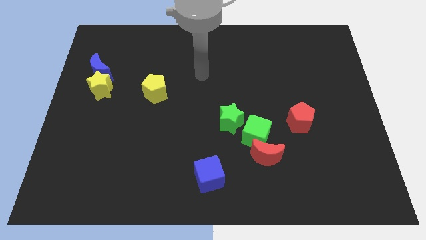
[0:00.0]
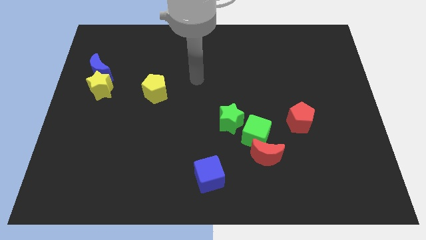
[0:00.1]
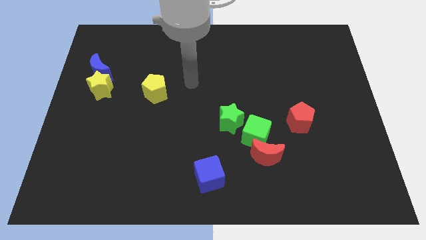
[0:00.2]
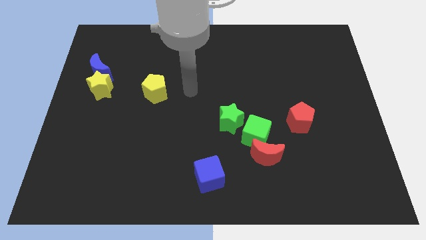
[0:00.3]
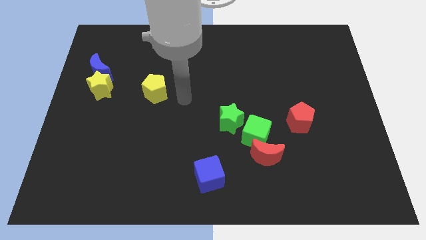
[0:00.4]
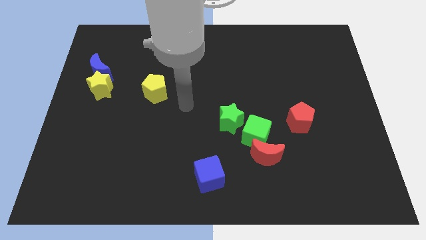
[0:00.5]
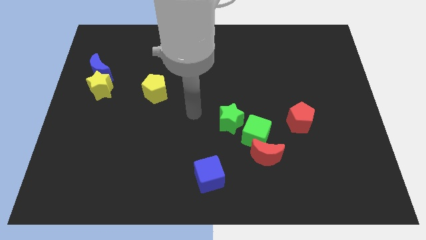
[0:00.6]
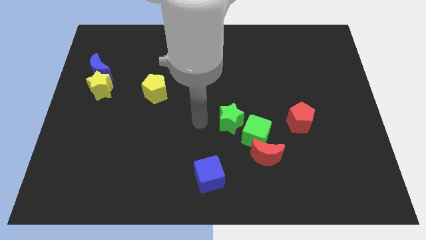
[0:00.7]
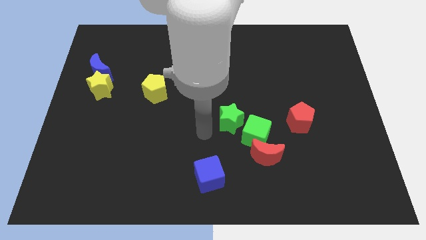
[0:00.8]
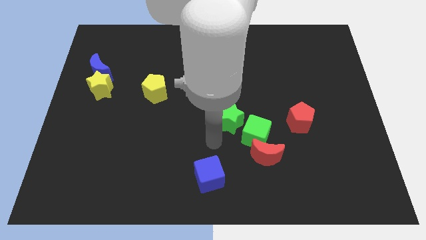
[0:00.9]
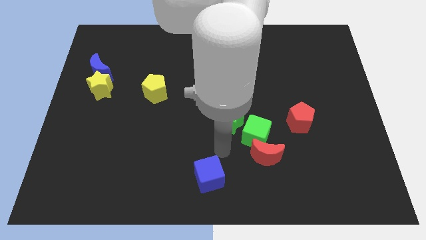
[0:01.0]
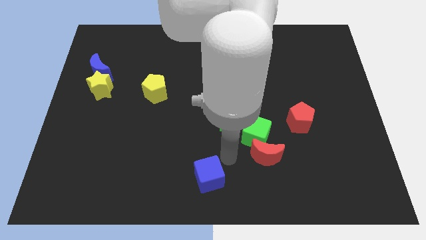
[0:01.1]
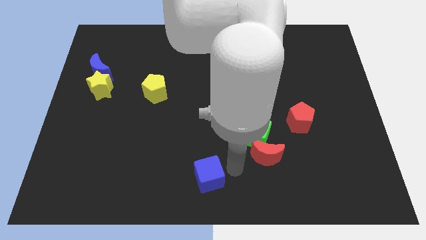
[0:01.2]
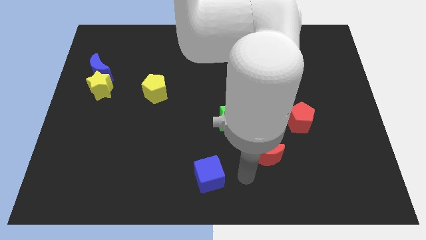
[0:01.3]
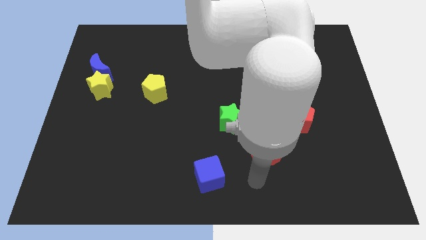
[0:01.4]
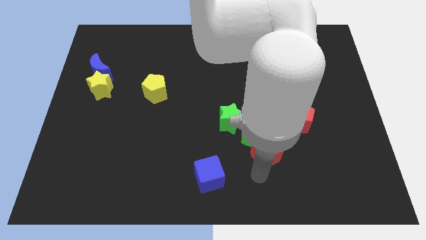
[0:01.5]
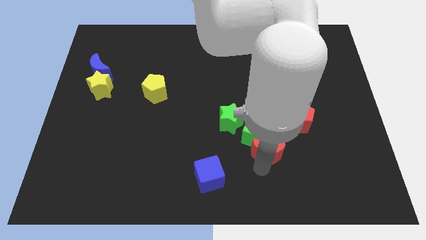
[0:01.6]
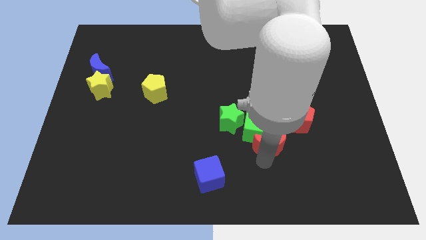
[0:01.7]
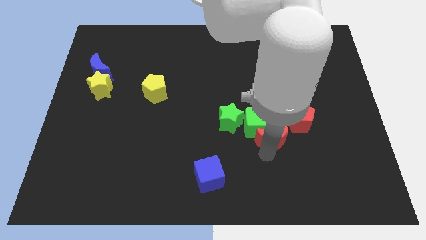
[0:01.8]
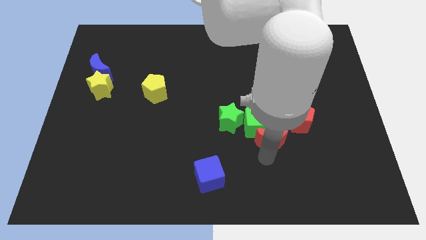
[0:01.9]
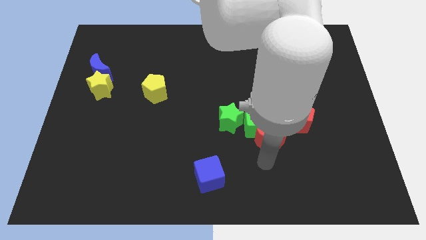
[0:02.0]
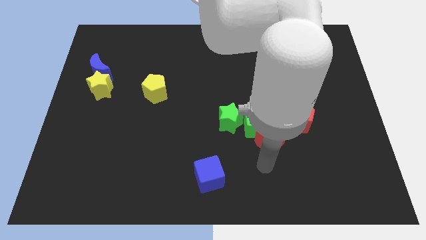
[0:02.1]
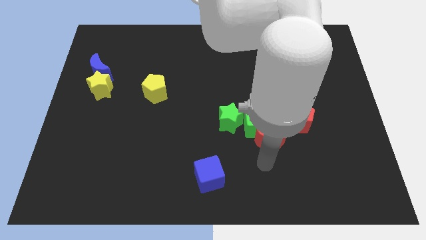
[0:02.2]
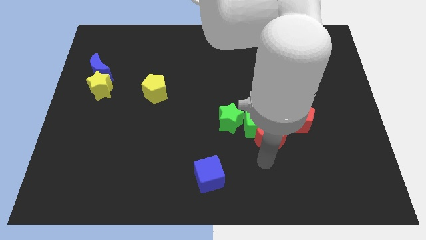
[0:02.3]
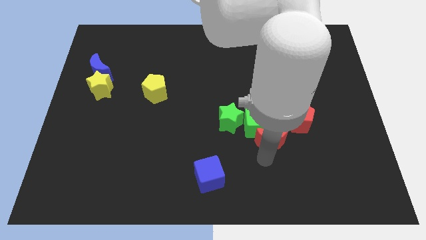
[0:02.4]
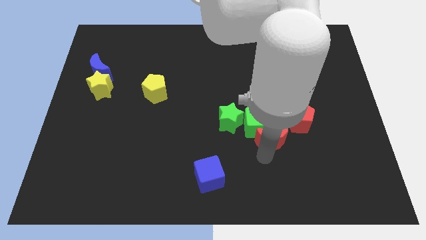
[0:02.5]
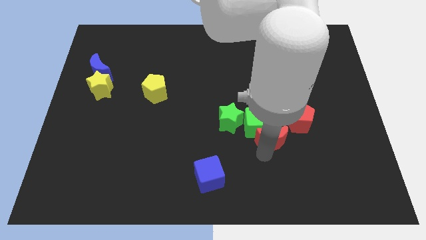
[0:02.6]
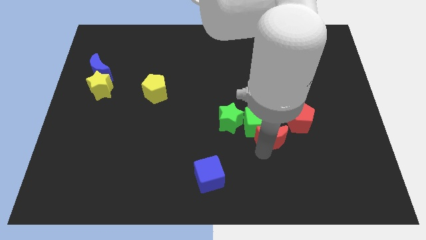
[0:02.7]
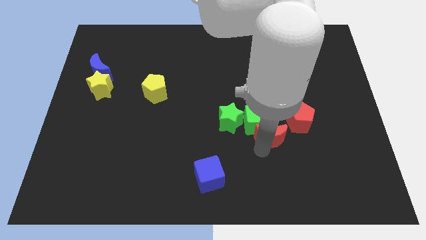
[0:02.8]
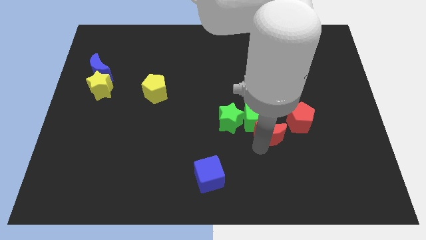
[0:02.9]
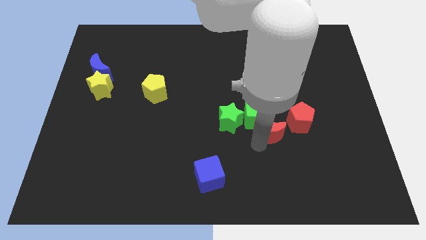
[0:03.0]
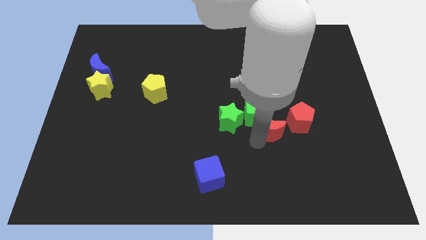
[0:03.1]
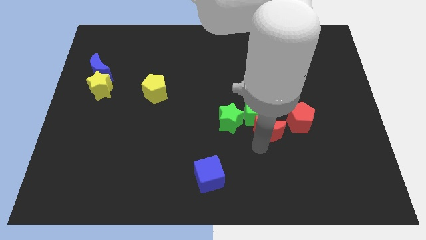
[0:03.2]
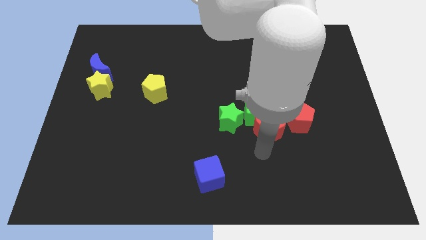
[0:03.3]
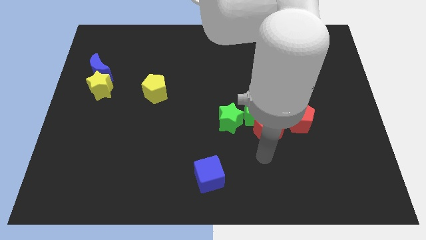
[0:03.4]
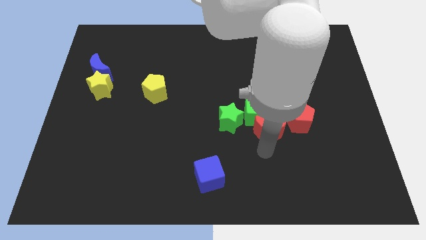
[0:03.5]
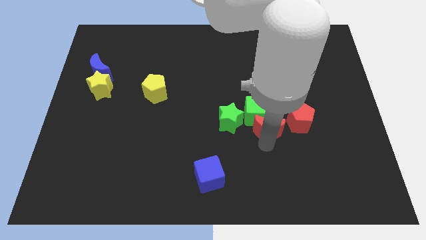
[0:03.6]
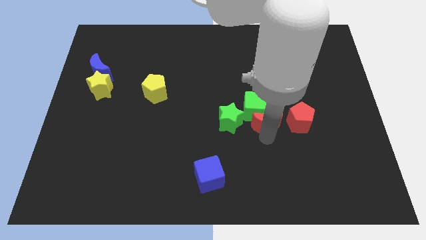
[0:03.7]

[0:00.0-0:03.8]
move the red moon a little bit up

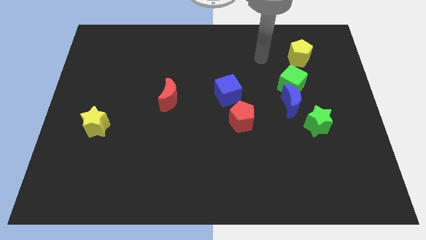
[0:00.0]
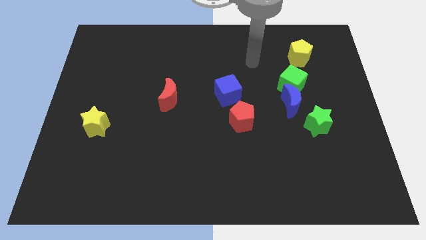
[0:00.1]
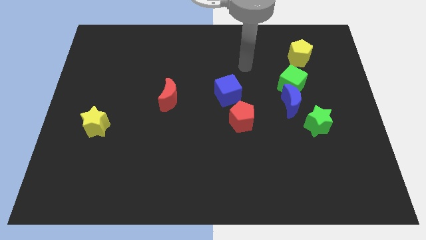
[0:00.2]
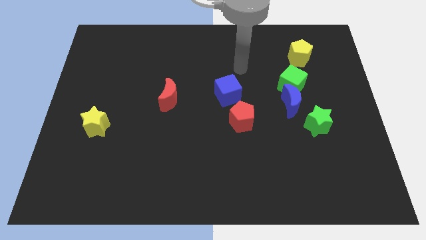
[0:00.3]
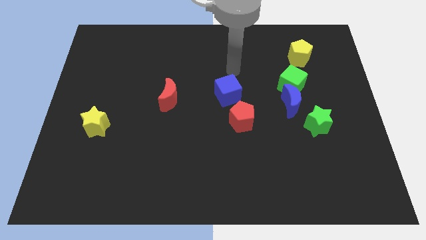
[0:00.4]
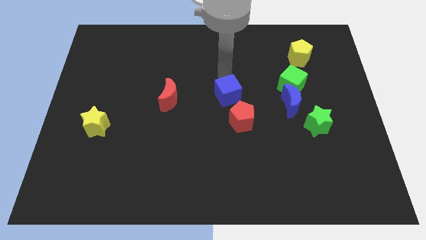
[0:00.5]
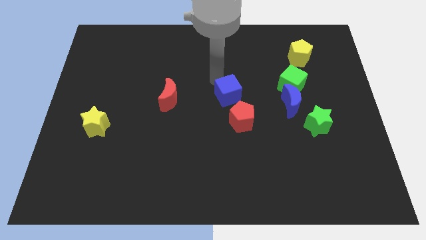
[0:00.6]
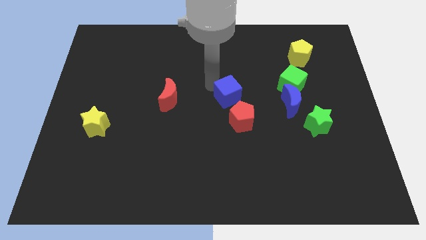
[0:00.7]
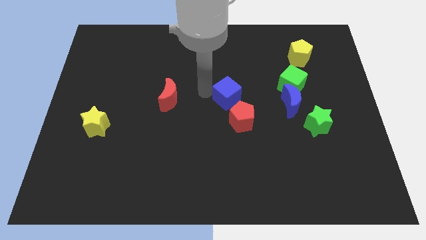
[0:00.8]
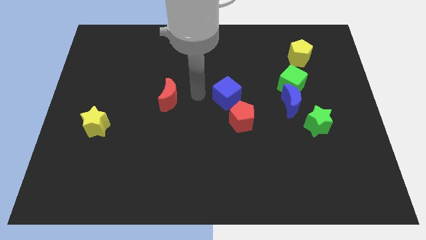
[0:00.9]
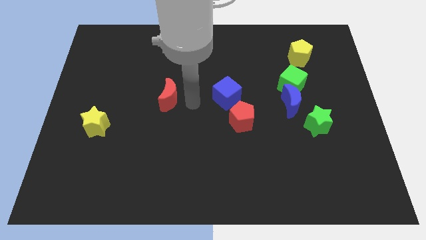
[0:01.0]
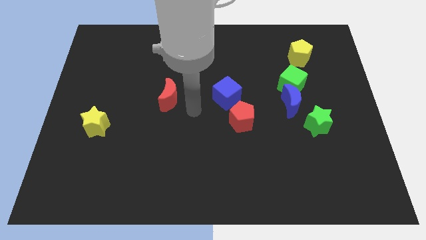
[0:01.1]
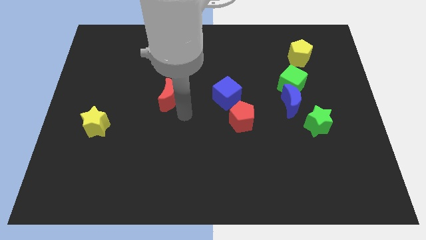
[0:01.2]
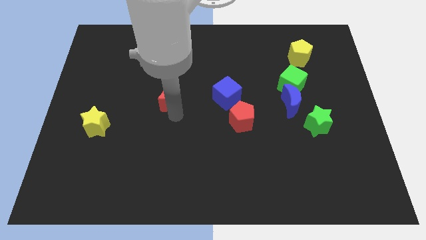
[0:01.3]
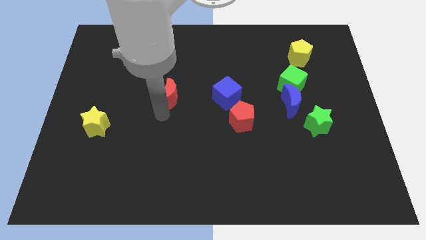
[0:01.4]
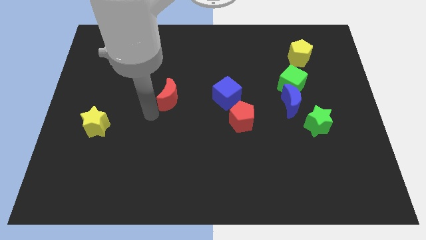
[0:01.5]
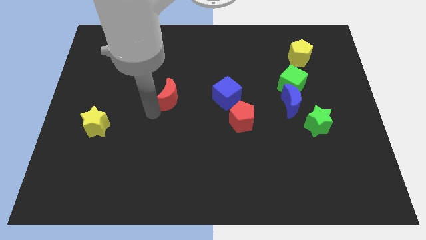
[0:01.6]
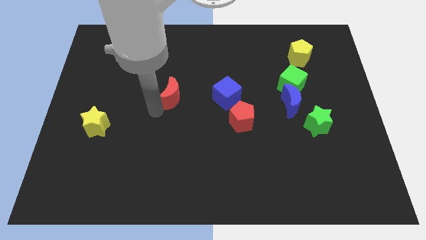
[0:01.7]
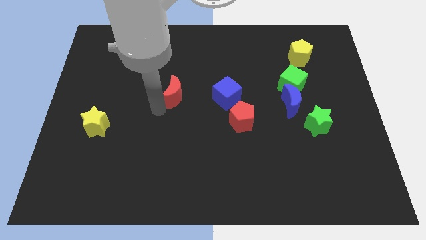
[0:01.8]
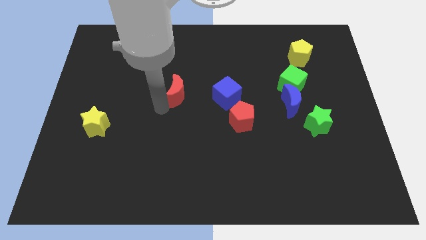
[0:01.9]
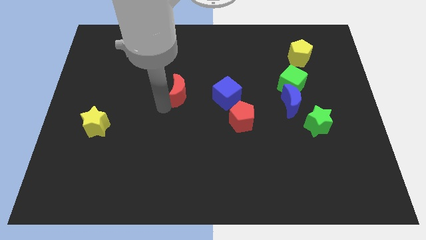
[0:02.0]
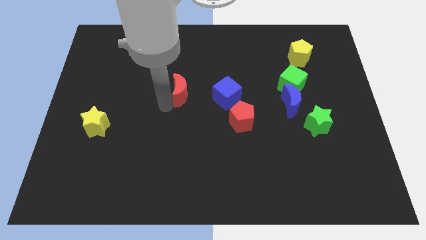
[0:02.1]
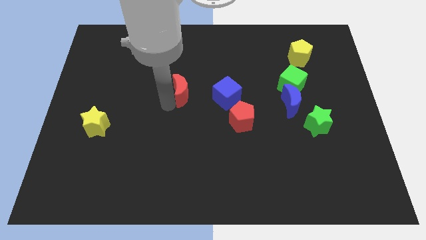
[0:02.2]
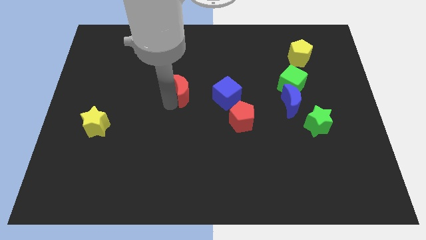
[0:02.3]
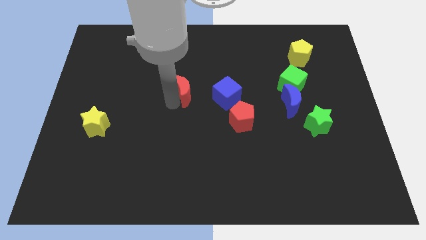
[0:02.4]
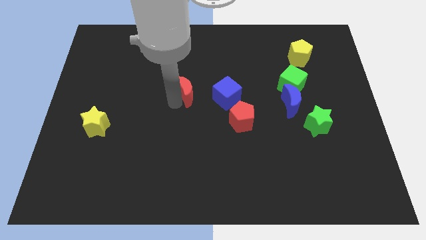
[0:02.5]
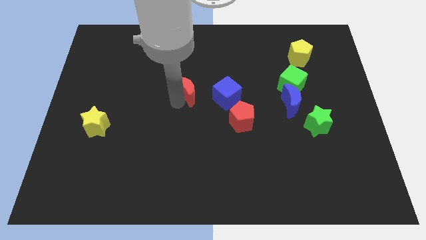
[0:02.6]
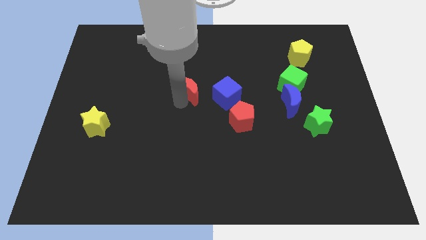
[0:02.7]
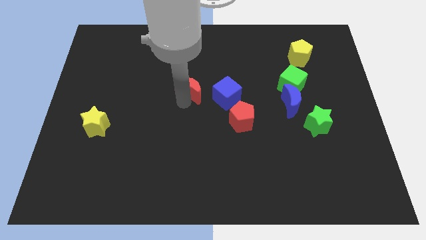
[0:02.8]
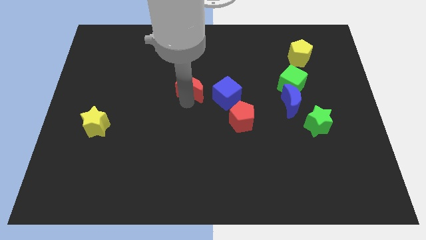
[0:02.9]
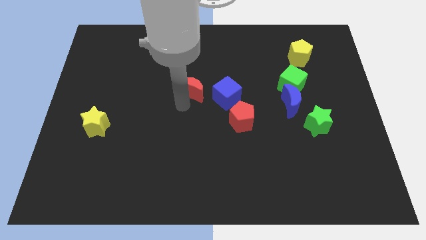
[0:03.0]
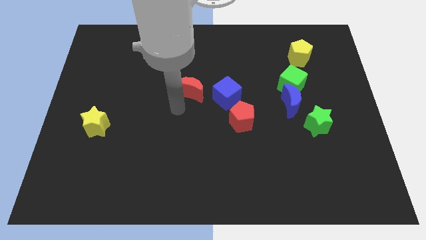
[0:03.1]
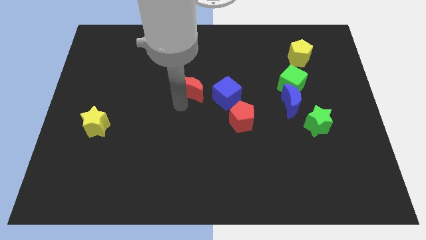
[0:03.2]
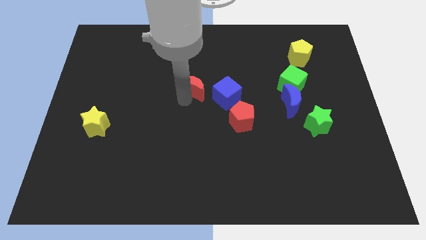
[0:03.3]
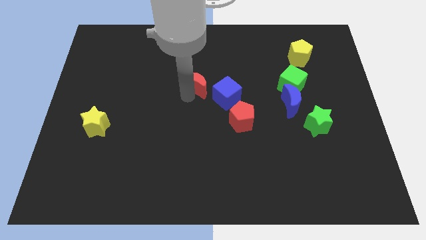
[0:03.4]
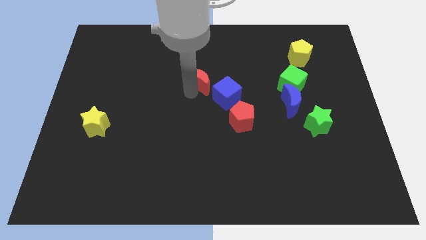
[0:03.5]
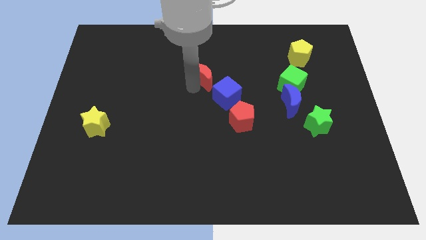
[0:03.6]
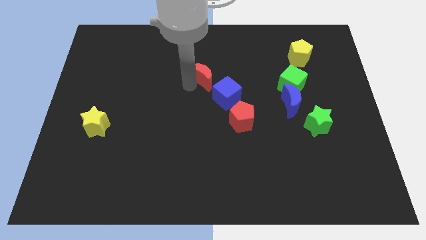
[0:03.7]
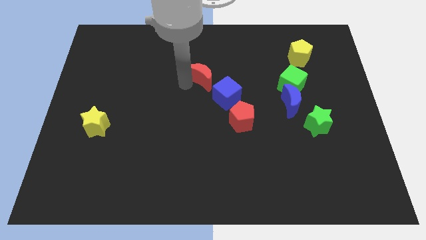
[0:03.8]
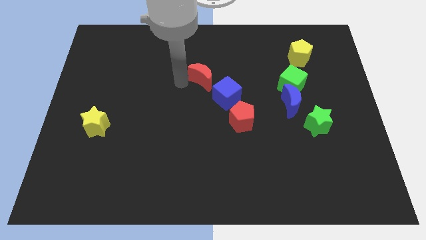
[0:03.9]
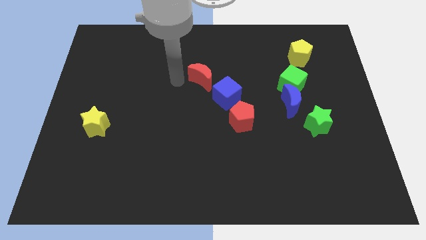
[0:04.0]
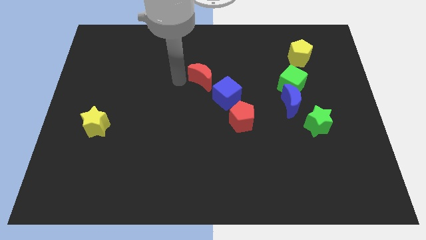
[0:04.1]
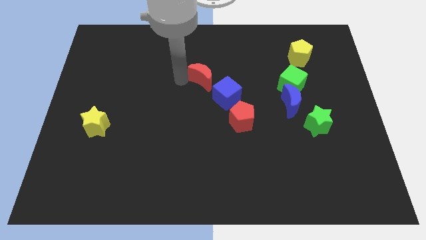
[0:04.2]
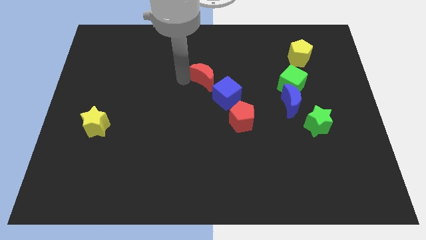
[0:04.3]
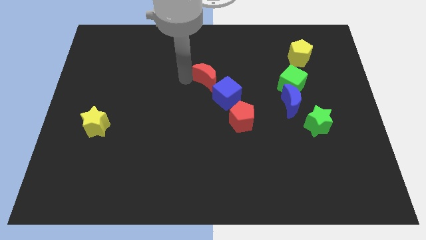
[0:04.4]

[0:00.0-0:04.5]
slightly slide the red moon right
